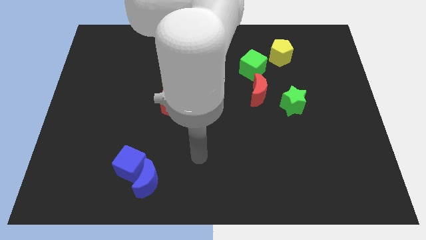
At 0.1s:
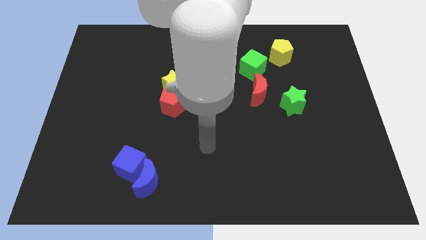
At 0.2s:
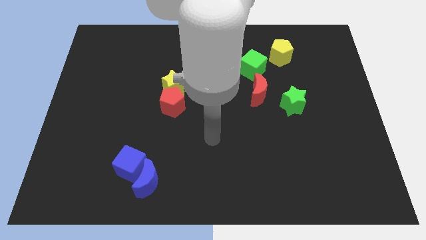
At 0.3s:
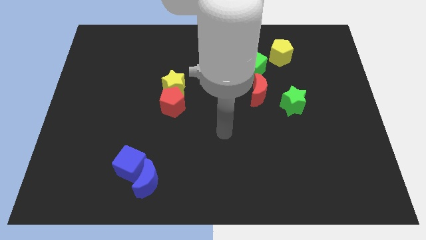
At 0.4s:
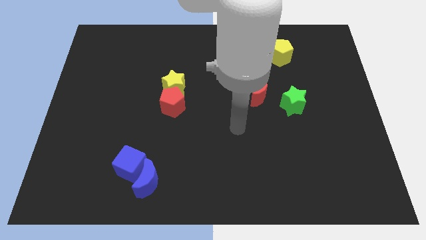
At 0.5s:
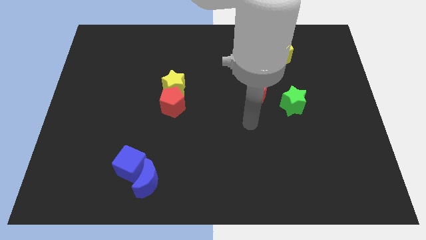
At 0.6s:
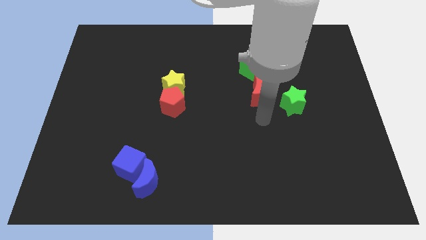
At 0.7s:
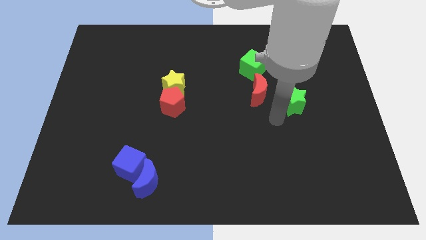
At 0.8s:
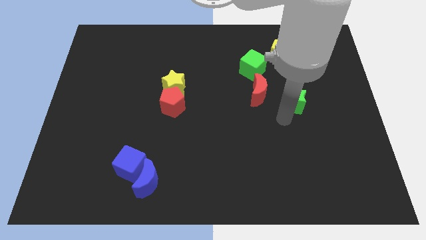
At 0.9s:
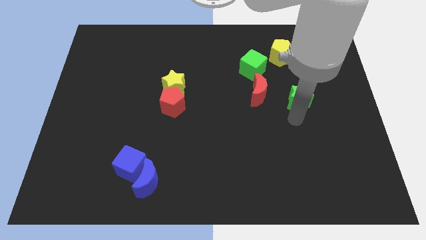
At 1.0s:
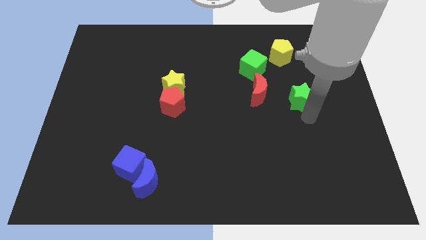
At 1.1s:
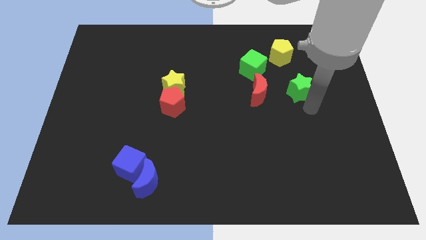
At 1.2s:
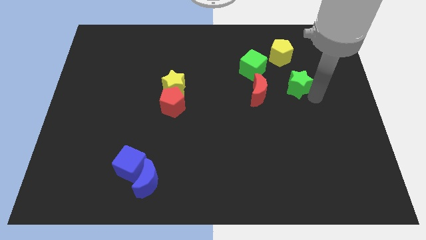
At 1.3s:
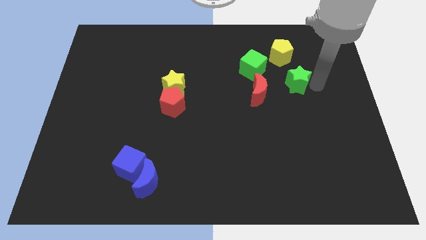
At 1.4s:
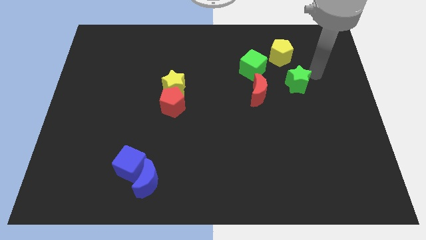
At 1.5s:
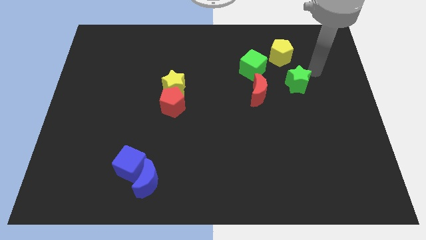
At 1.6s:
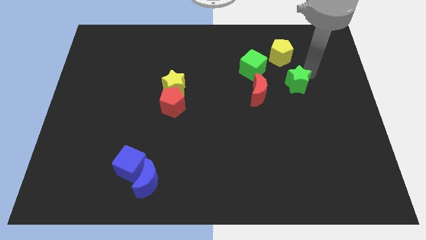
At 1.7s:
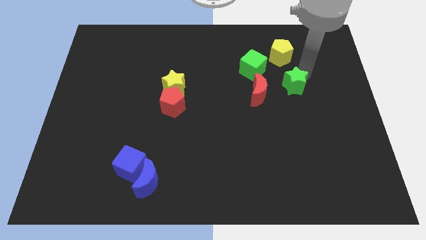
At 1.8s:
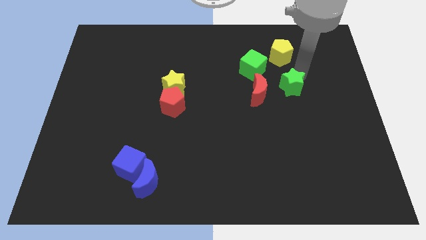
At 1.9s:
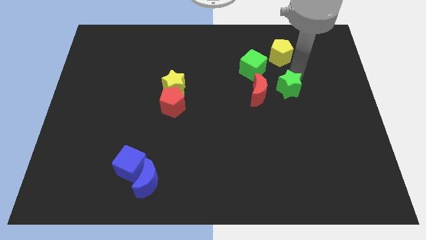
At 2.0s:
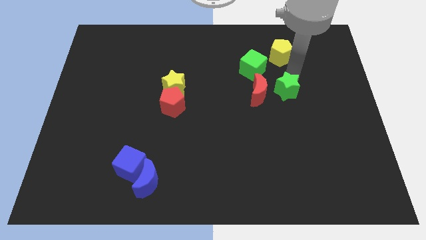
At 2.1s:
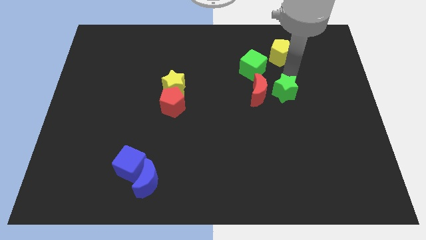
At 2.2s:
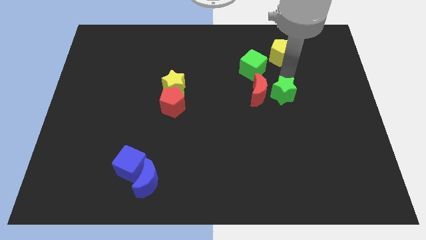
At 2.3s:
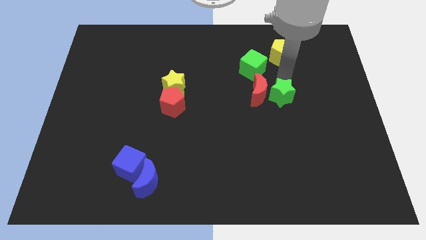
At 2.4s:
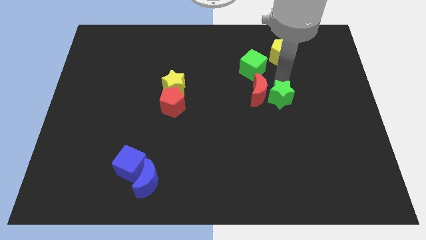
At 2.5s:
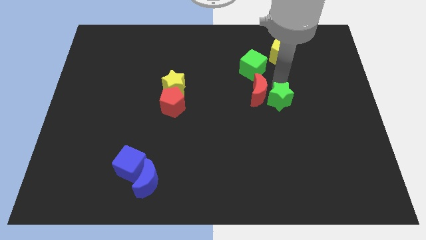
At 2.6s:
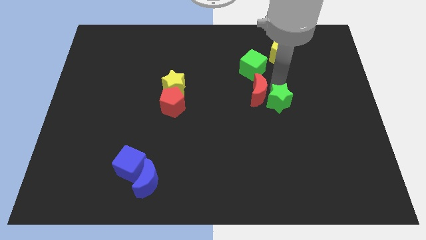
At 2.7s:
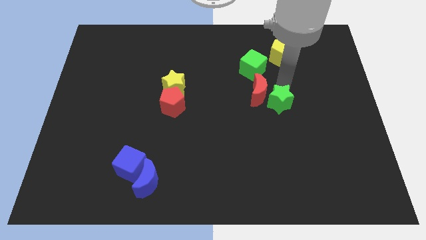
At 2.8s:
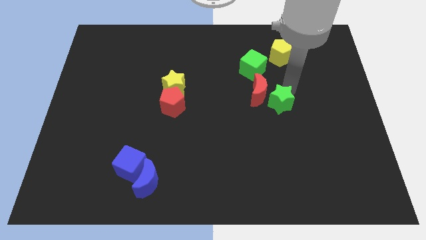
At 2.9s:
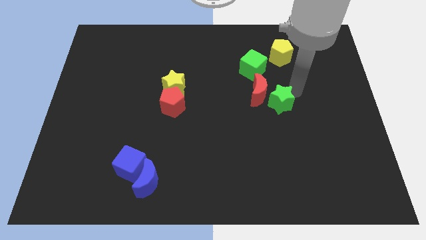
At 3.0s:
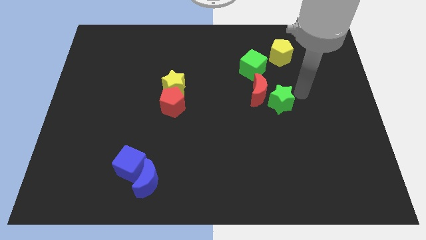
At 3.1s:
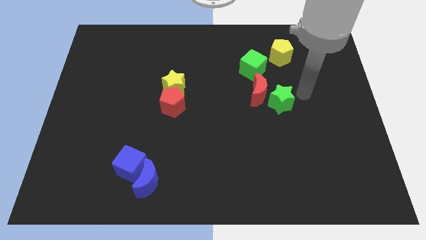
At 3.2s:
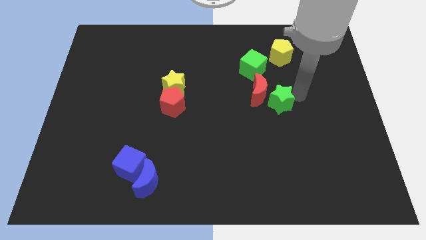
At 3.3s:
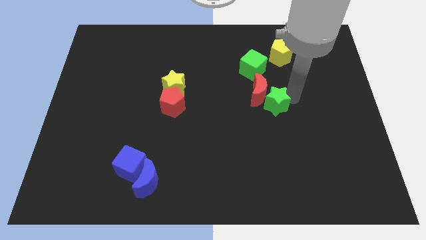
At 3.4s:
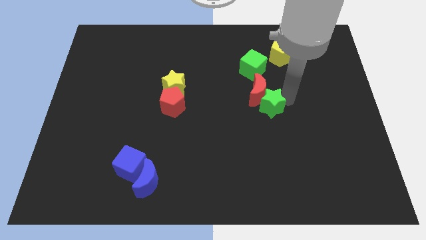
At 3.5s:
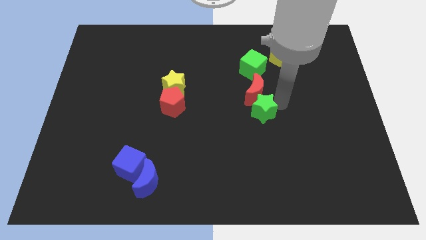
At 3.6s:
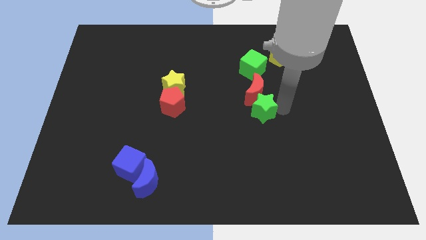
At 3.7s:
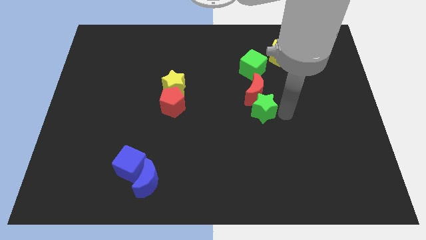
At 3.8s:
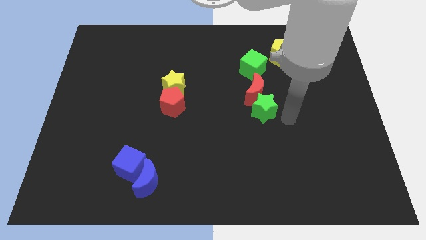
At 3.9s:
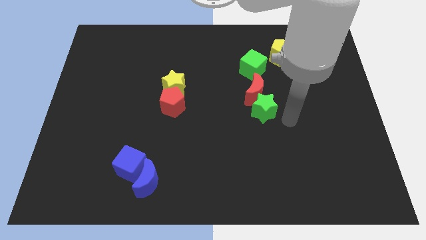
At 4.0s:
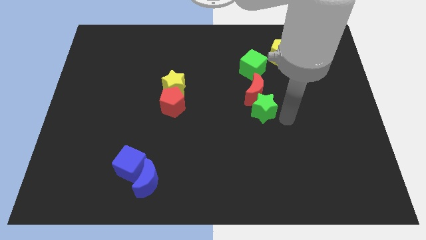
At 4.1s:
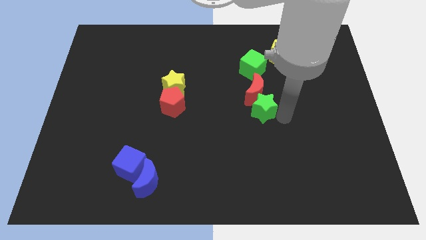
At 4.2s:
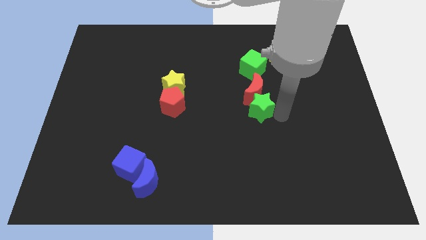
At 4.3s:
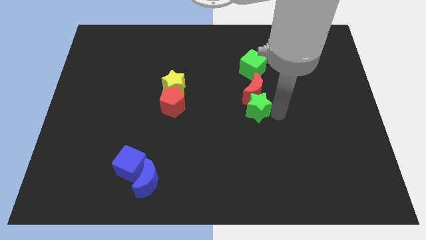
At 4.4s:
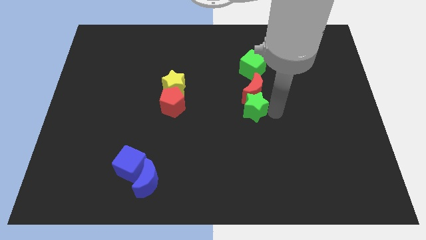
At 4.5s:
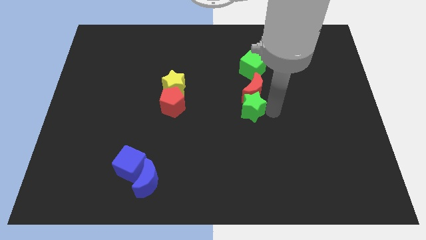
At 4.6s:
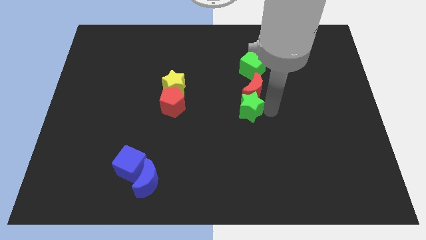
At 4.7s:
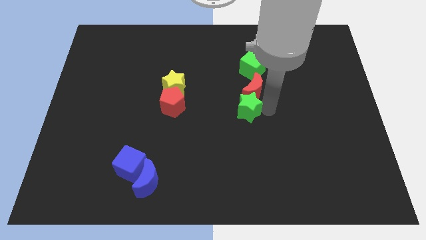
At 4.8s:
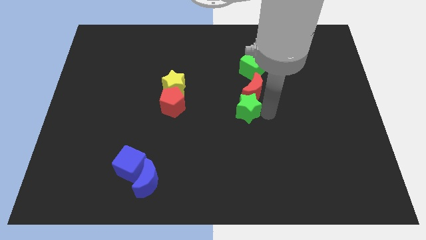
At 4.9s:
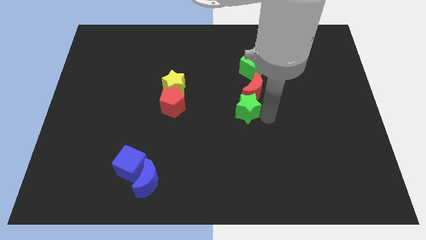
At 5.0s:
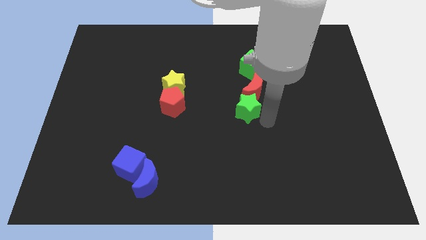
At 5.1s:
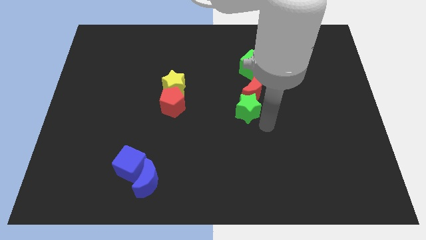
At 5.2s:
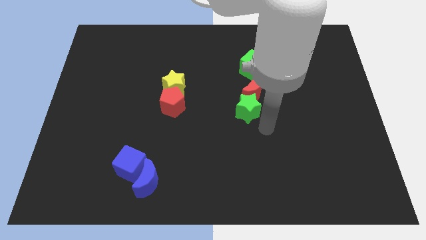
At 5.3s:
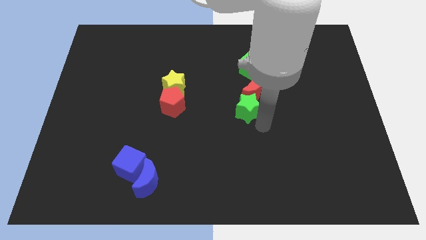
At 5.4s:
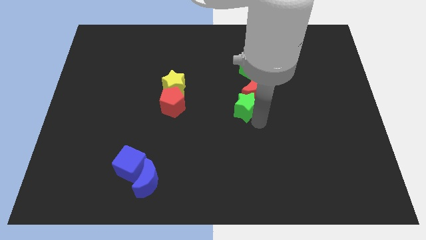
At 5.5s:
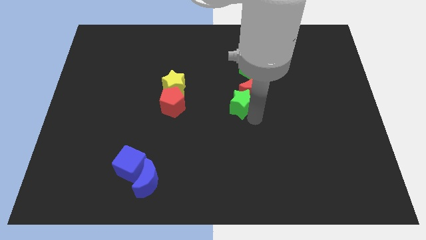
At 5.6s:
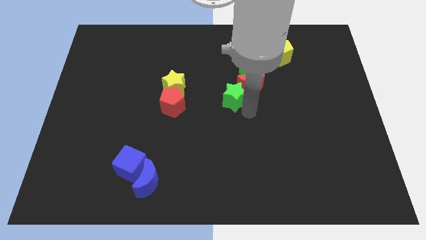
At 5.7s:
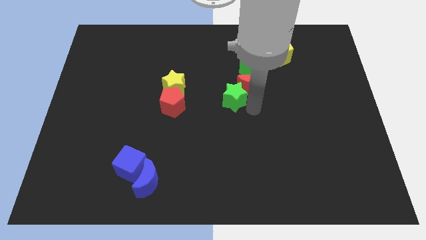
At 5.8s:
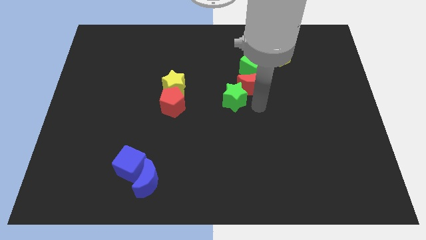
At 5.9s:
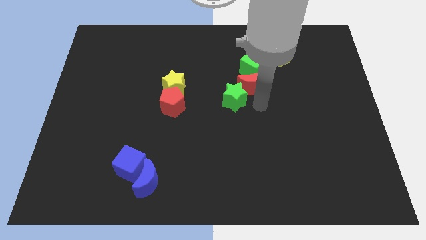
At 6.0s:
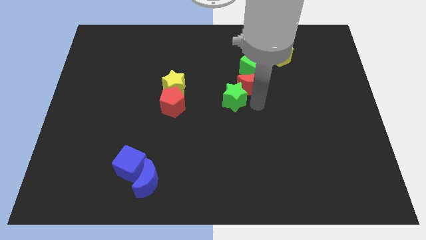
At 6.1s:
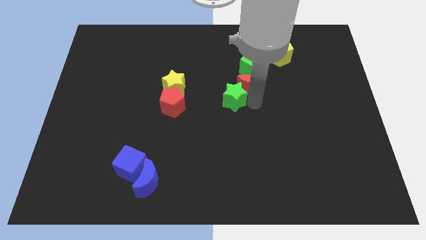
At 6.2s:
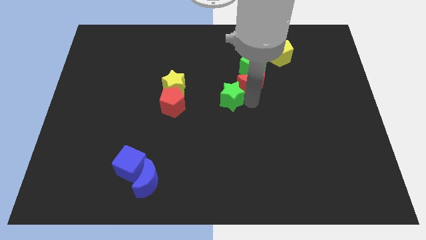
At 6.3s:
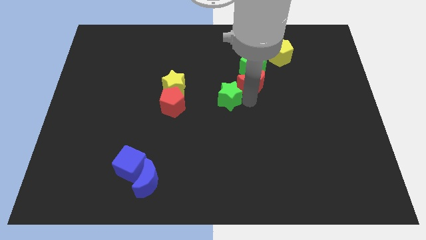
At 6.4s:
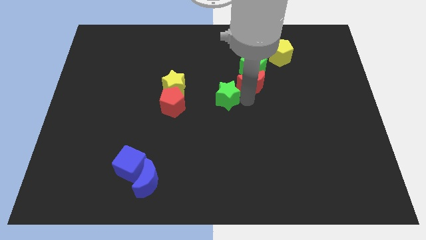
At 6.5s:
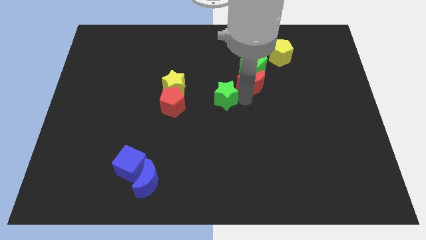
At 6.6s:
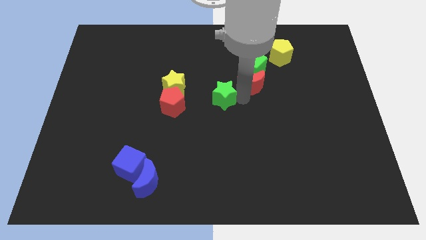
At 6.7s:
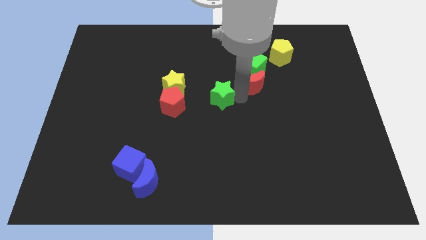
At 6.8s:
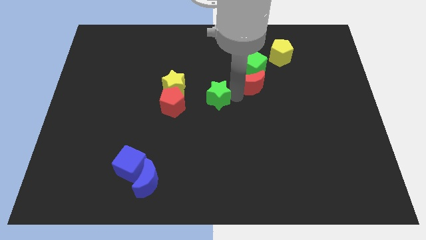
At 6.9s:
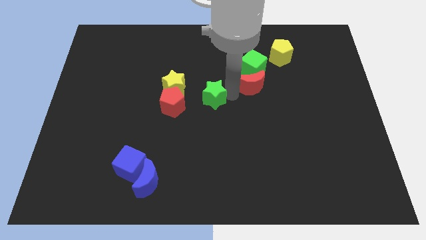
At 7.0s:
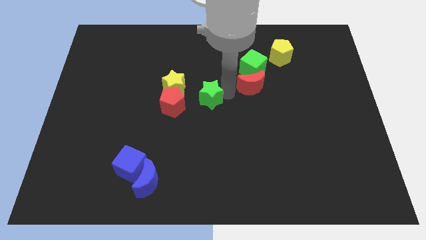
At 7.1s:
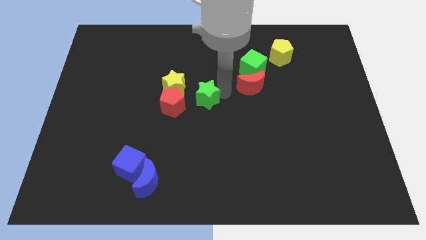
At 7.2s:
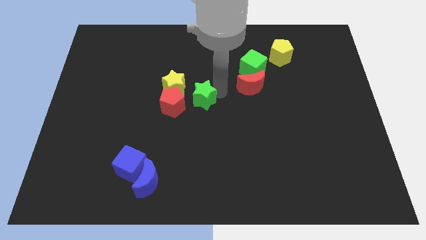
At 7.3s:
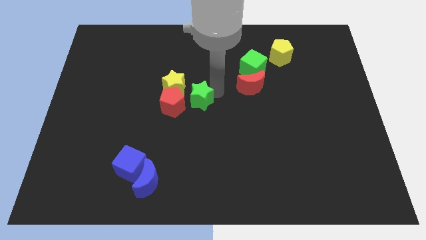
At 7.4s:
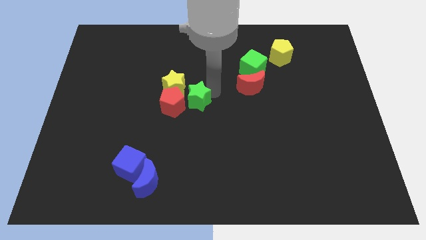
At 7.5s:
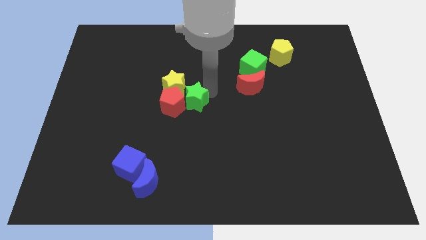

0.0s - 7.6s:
move the green star close to the yellow star

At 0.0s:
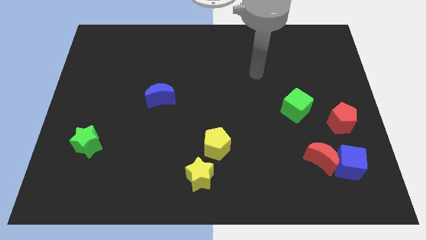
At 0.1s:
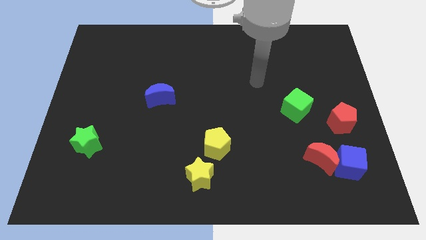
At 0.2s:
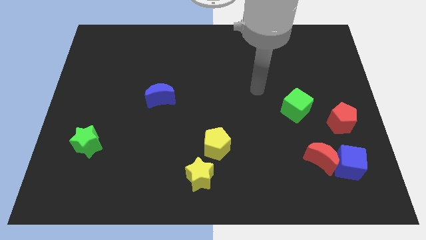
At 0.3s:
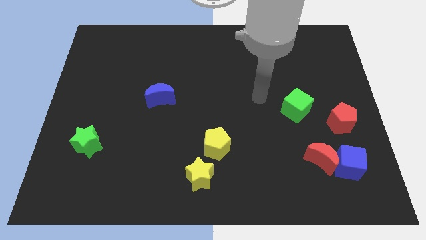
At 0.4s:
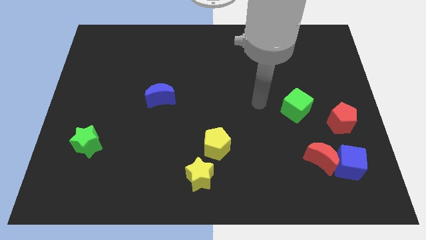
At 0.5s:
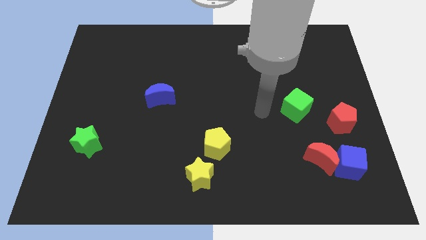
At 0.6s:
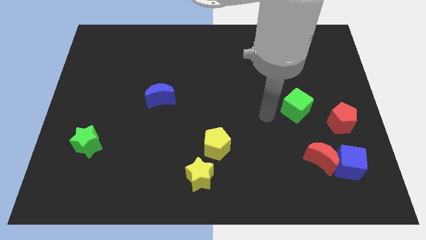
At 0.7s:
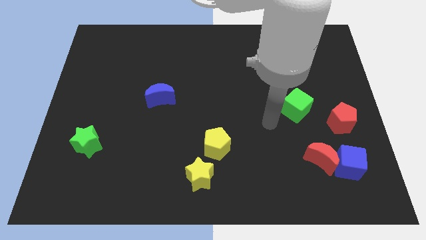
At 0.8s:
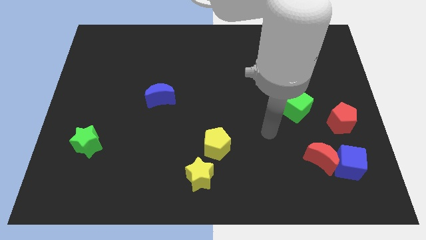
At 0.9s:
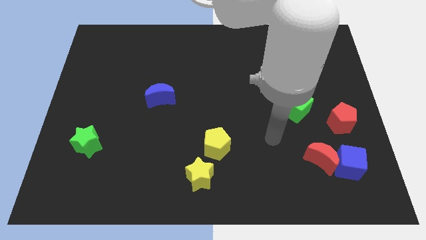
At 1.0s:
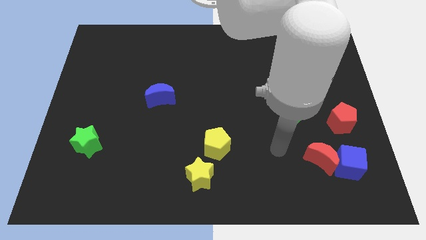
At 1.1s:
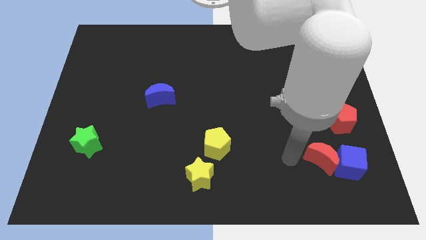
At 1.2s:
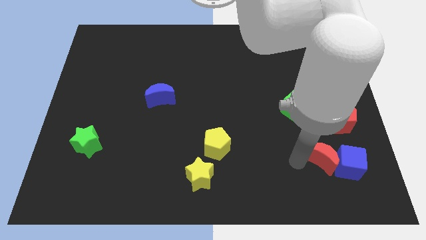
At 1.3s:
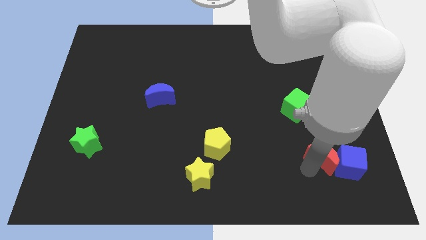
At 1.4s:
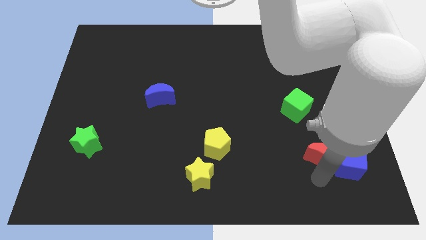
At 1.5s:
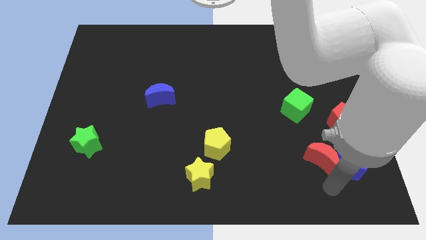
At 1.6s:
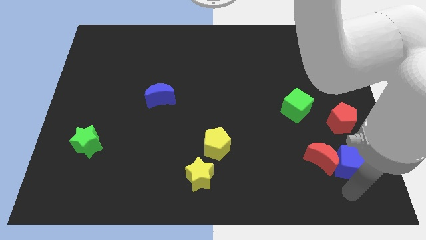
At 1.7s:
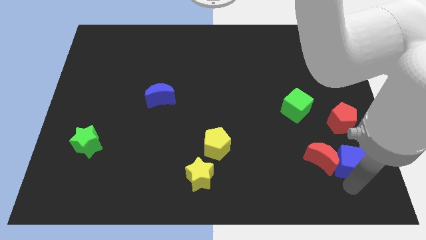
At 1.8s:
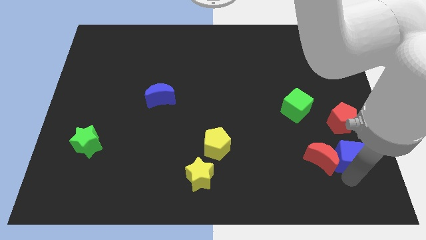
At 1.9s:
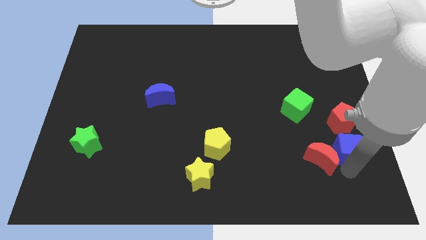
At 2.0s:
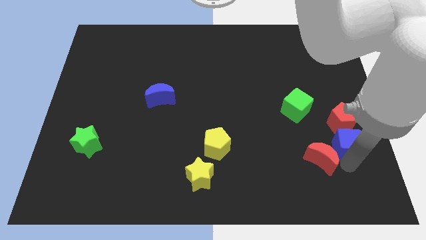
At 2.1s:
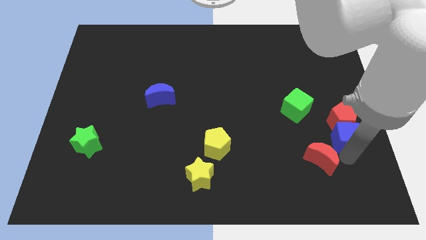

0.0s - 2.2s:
move the blue cube to the red pentagon
